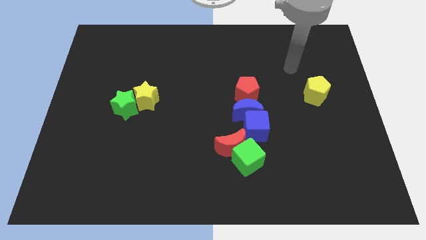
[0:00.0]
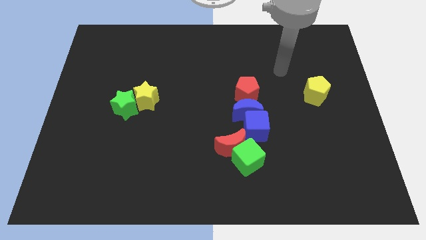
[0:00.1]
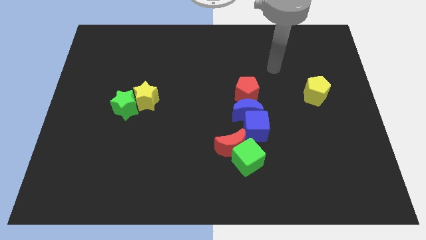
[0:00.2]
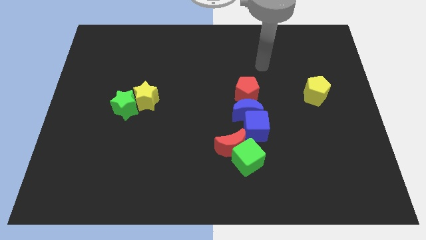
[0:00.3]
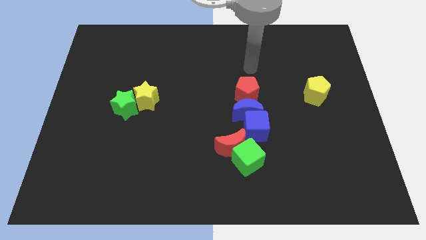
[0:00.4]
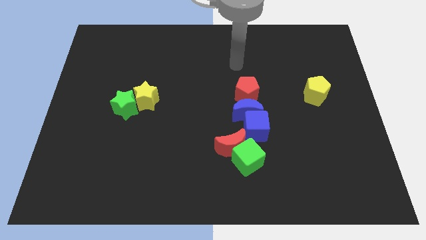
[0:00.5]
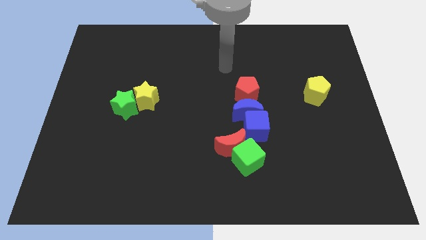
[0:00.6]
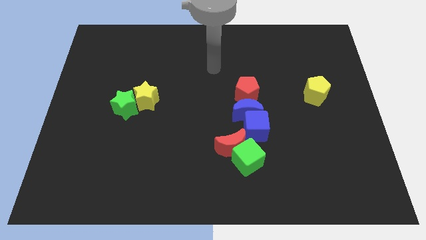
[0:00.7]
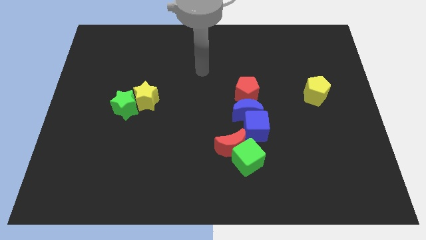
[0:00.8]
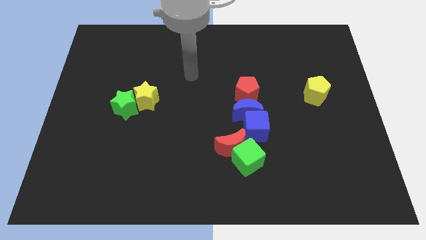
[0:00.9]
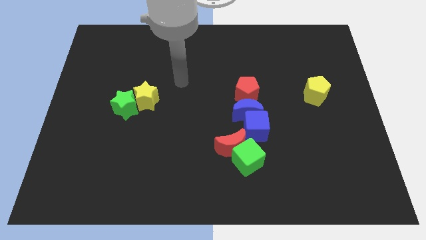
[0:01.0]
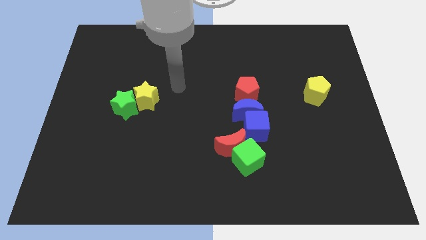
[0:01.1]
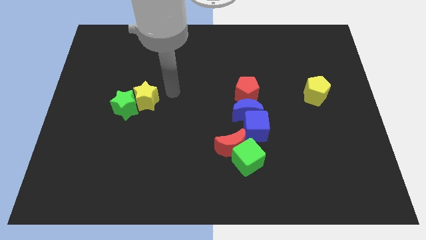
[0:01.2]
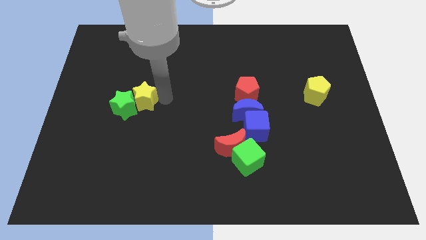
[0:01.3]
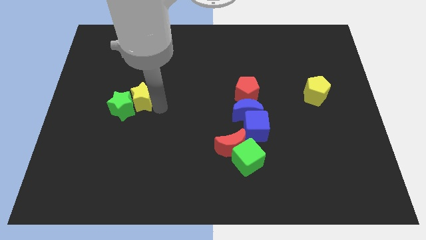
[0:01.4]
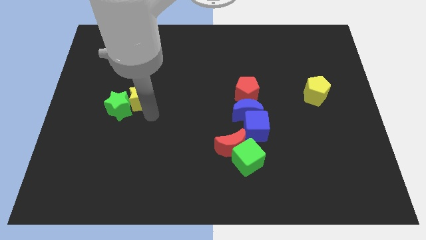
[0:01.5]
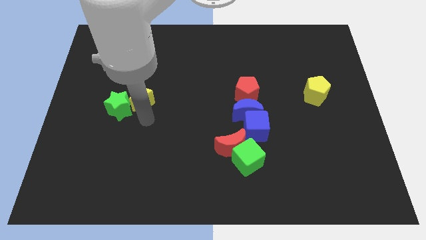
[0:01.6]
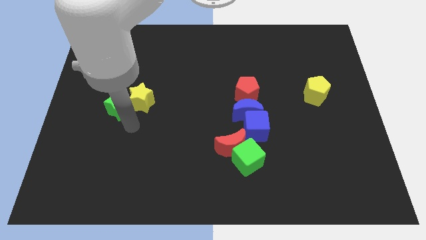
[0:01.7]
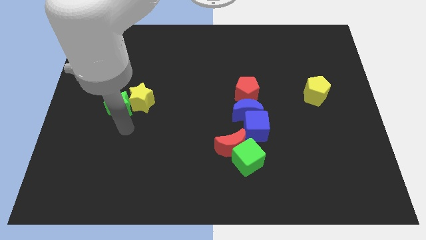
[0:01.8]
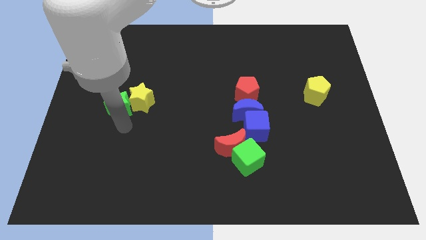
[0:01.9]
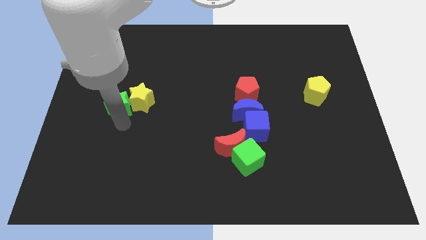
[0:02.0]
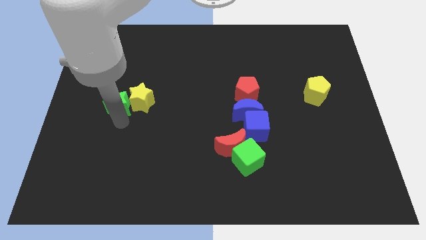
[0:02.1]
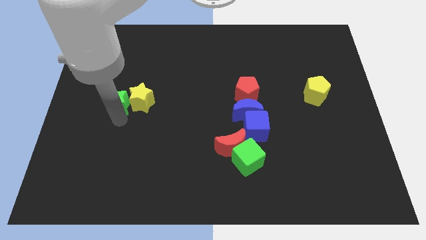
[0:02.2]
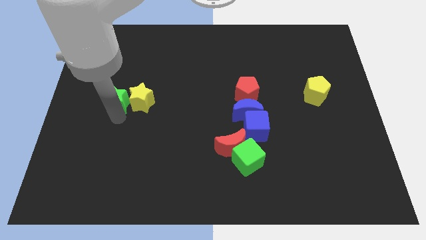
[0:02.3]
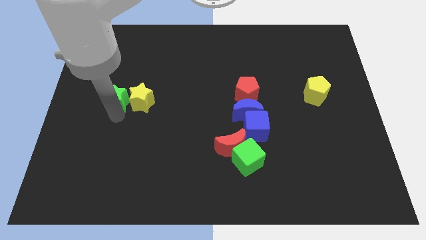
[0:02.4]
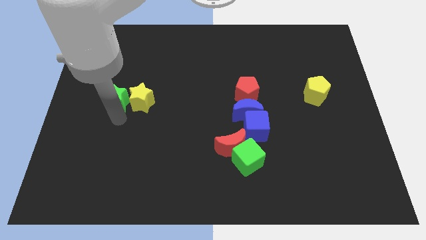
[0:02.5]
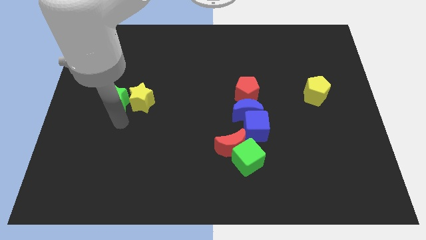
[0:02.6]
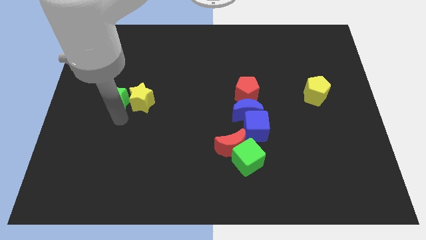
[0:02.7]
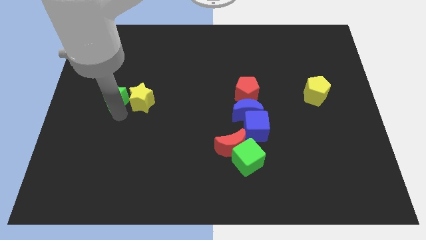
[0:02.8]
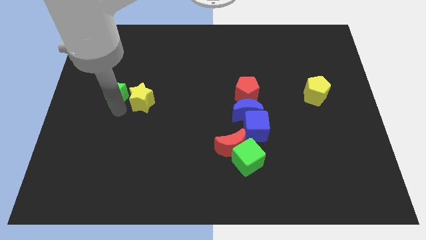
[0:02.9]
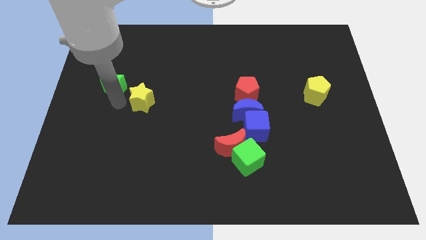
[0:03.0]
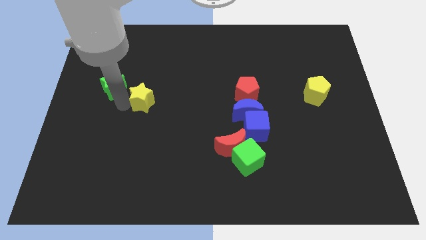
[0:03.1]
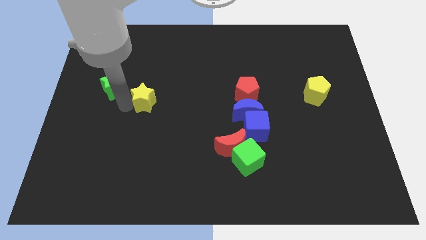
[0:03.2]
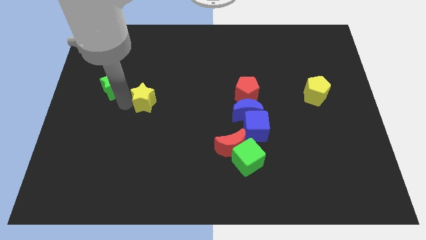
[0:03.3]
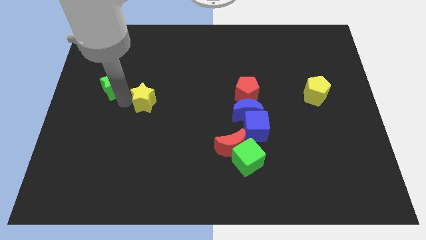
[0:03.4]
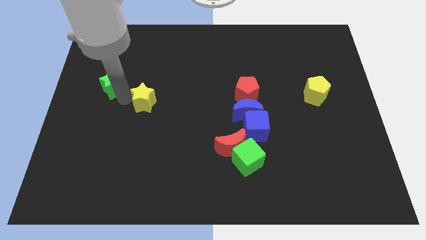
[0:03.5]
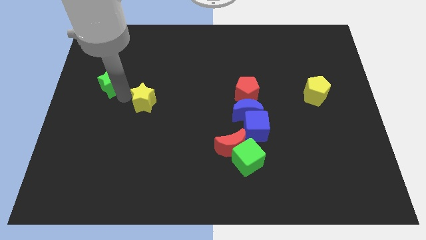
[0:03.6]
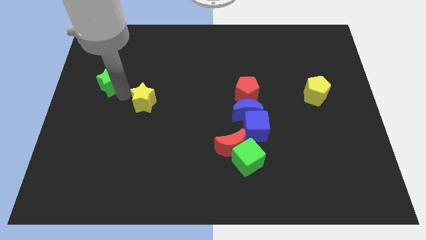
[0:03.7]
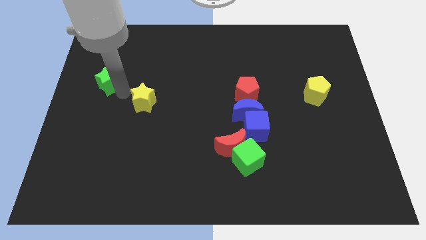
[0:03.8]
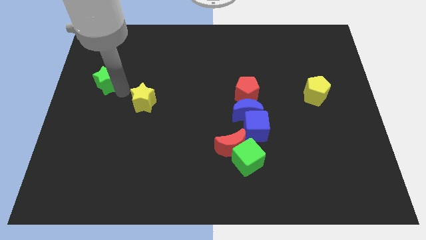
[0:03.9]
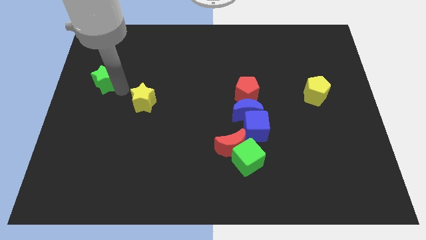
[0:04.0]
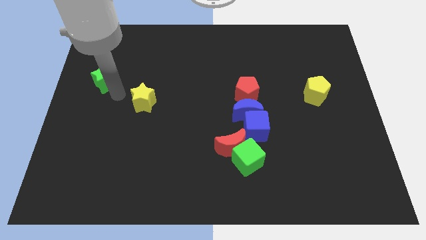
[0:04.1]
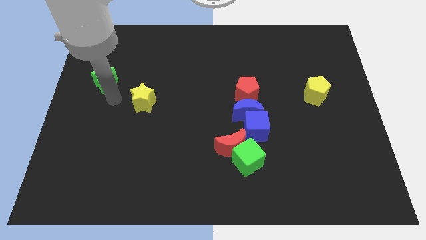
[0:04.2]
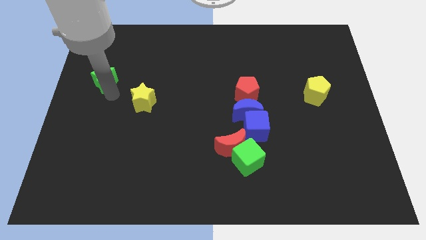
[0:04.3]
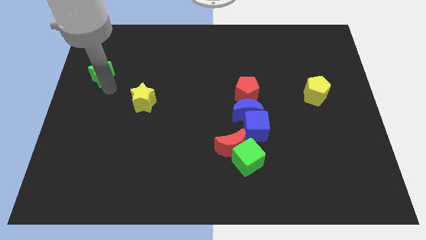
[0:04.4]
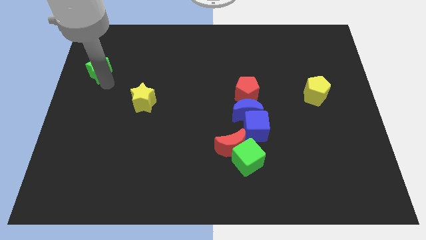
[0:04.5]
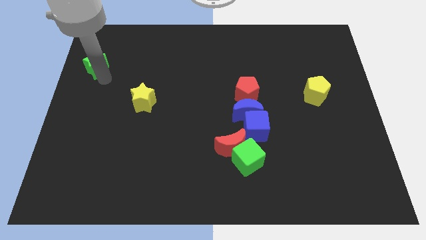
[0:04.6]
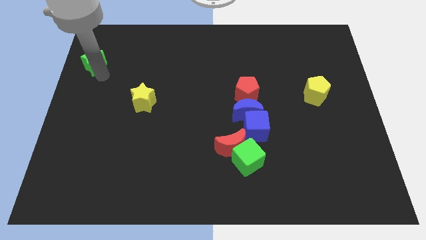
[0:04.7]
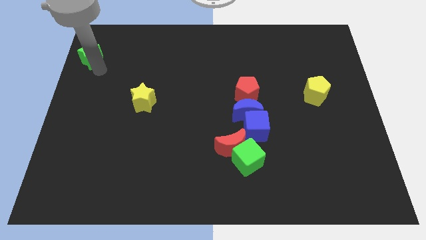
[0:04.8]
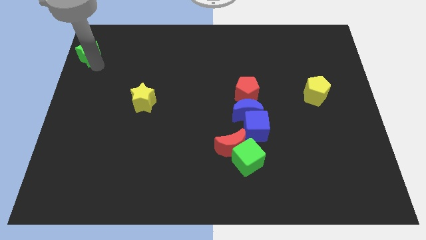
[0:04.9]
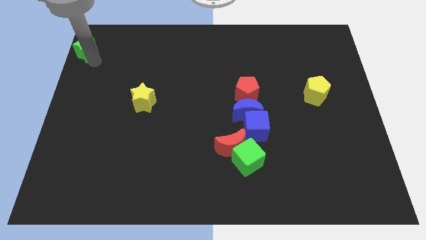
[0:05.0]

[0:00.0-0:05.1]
move the green star to the top left corner
